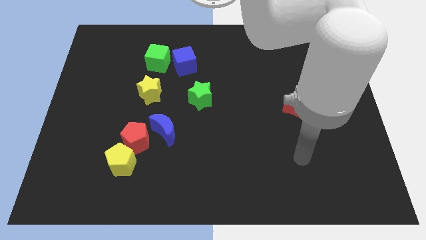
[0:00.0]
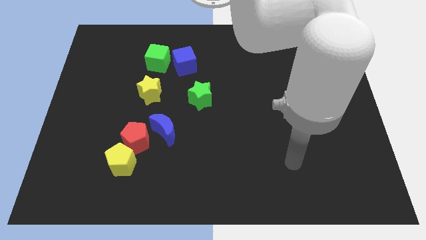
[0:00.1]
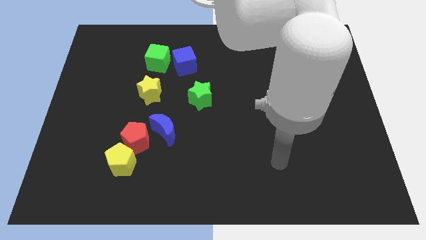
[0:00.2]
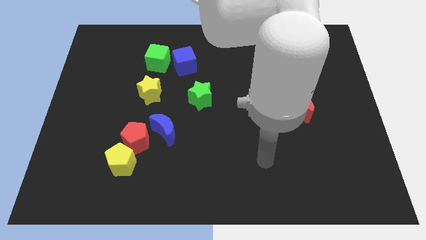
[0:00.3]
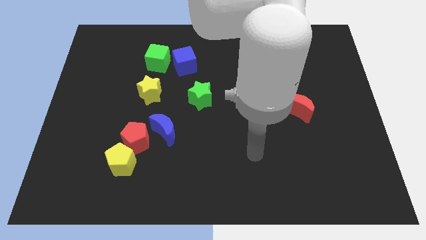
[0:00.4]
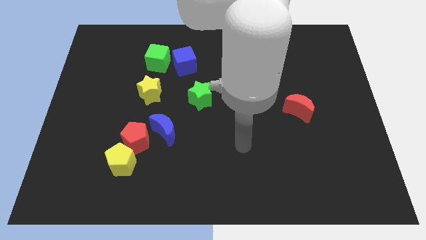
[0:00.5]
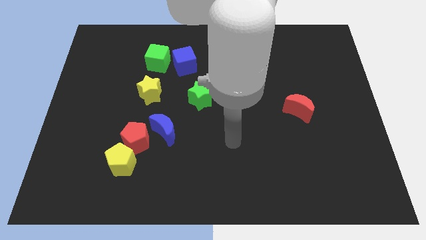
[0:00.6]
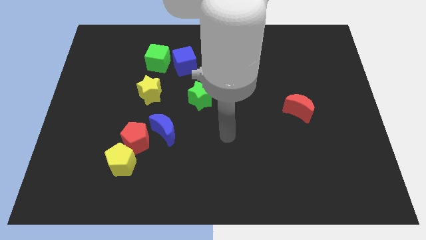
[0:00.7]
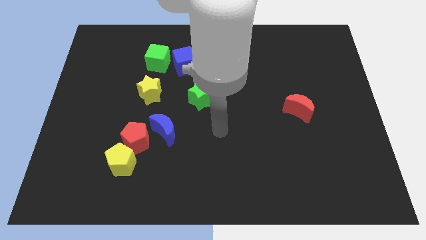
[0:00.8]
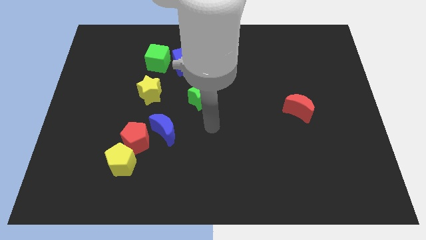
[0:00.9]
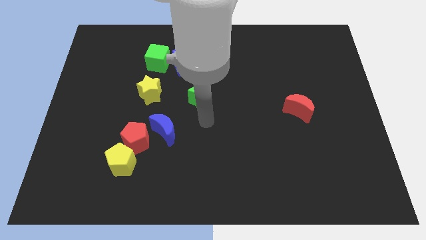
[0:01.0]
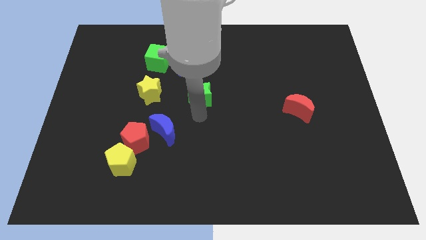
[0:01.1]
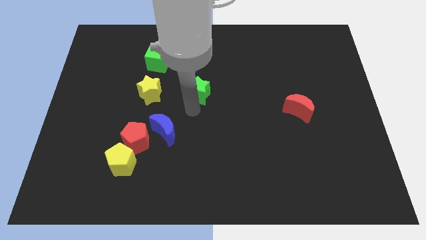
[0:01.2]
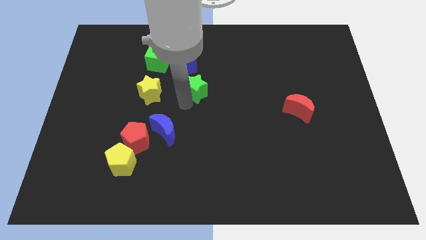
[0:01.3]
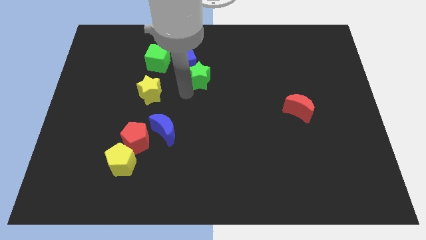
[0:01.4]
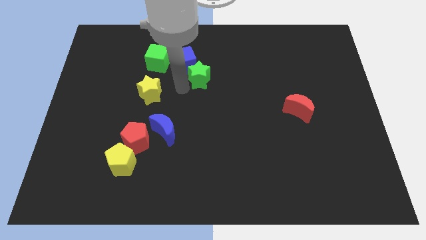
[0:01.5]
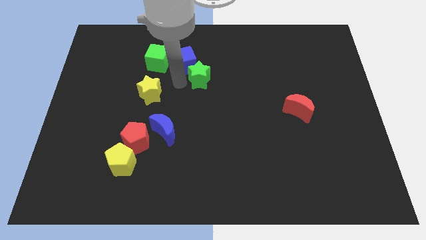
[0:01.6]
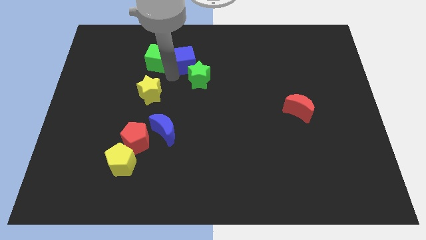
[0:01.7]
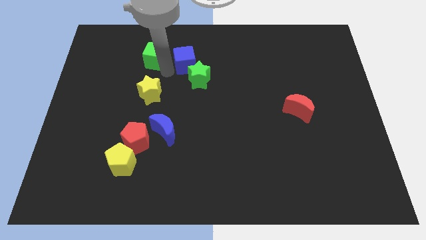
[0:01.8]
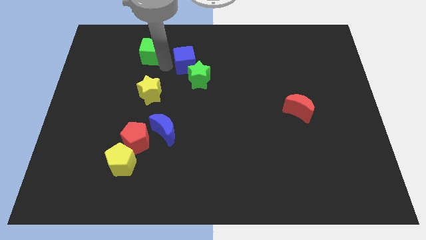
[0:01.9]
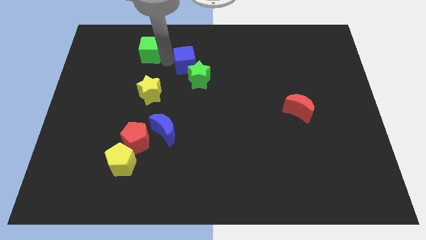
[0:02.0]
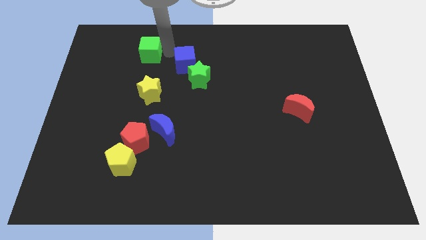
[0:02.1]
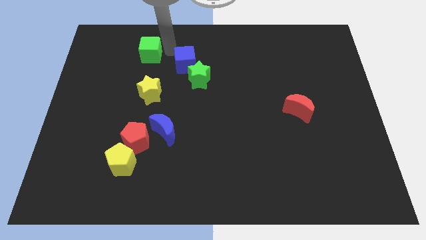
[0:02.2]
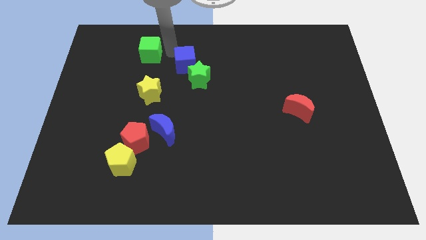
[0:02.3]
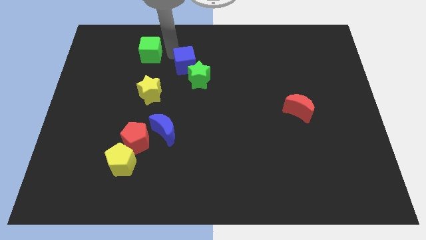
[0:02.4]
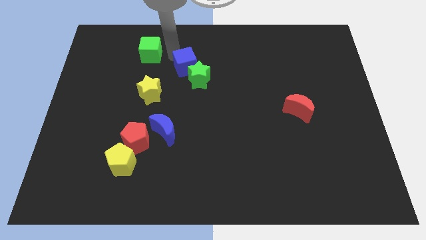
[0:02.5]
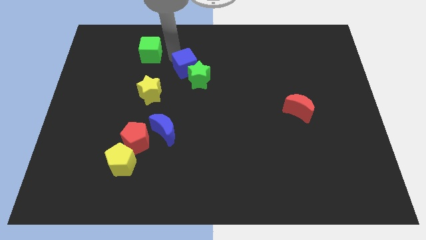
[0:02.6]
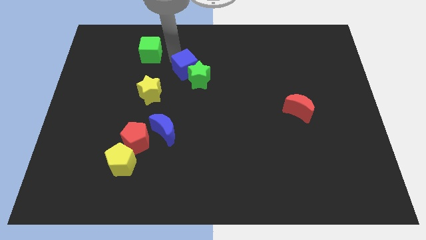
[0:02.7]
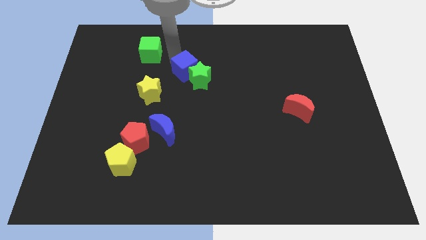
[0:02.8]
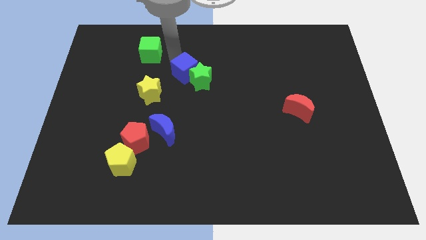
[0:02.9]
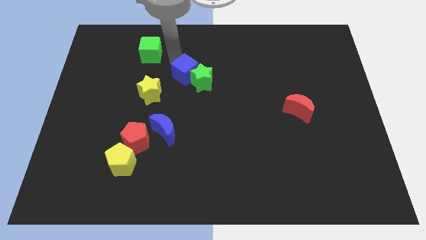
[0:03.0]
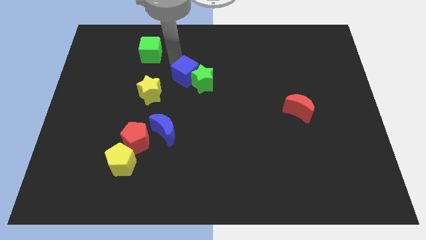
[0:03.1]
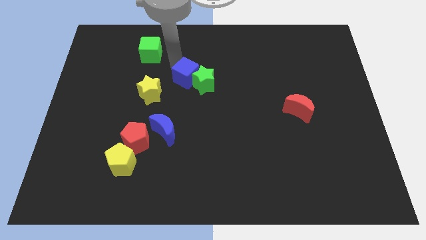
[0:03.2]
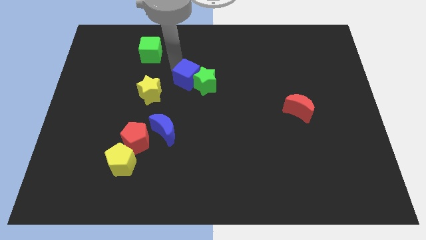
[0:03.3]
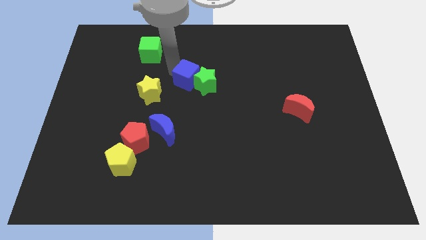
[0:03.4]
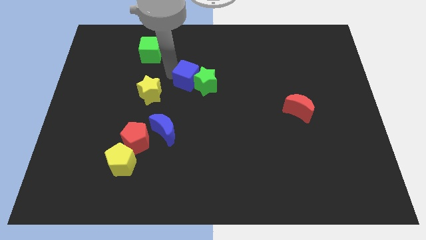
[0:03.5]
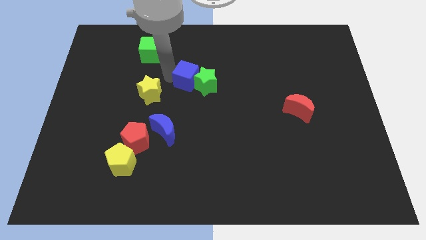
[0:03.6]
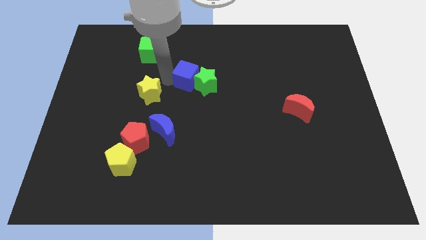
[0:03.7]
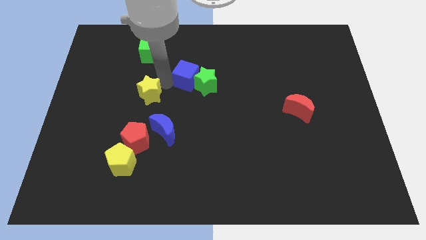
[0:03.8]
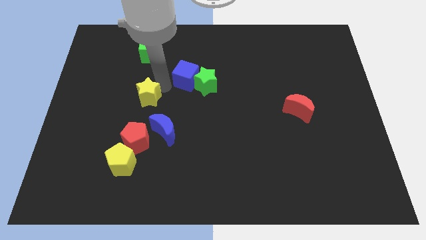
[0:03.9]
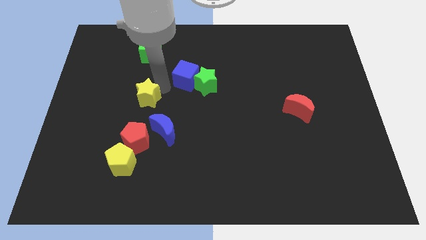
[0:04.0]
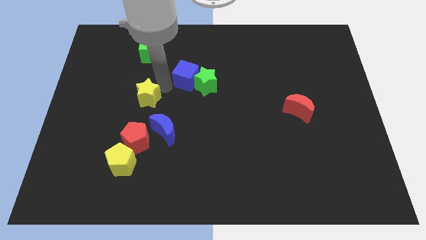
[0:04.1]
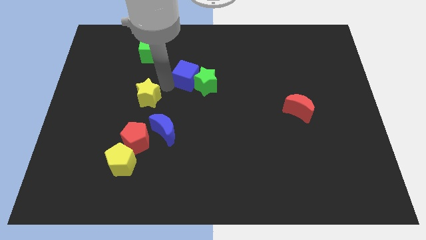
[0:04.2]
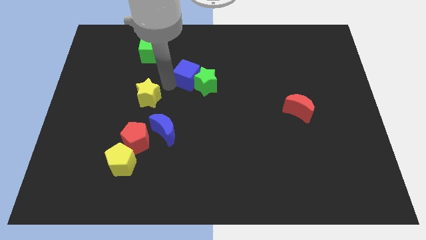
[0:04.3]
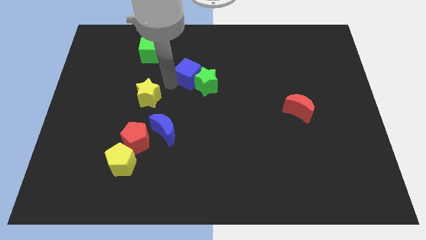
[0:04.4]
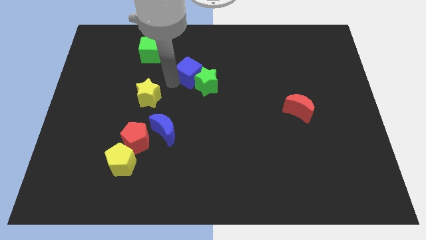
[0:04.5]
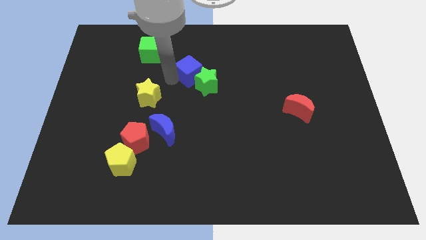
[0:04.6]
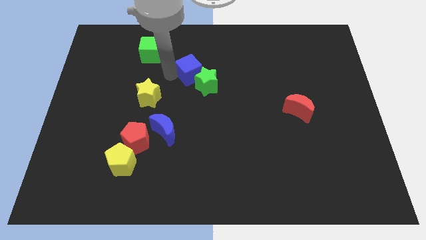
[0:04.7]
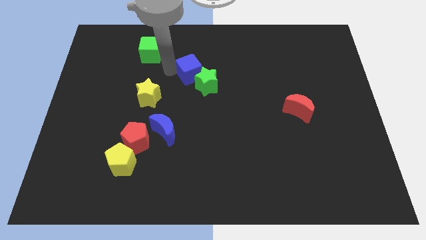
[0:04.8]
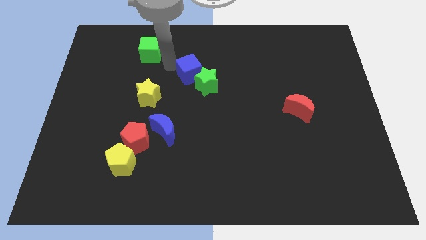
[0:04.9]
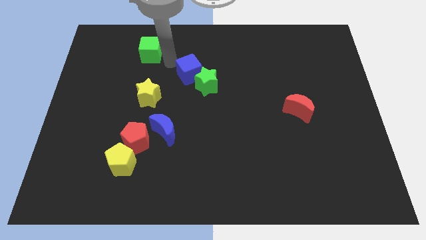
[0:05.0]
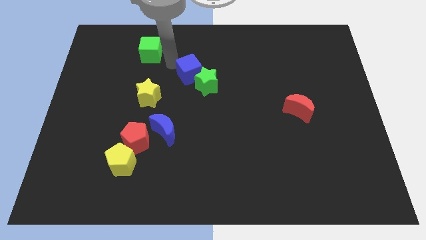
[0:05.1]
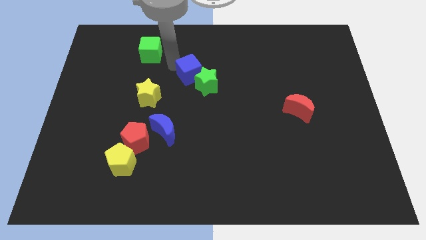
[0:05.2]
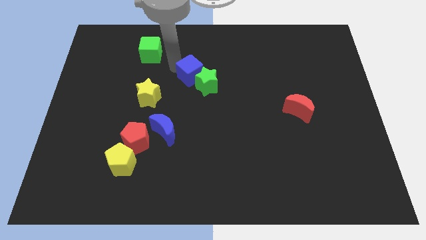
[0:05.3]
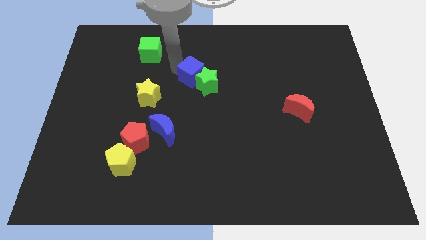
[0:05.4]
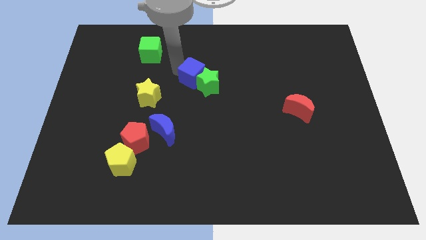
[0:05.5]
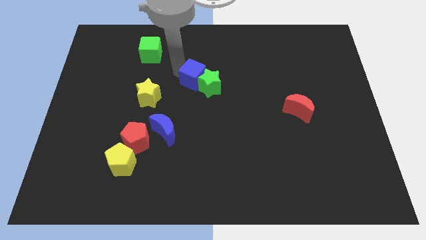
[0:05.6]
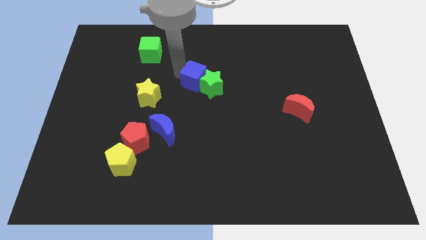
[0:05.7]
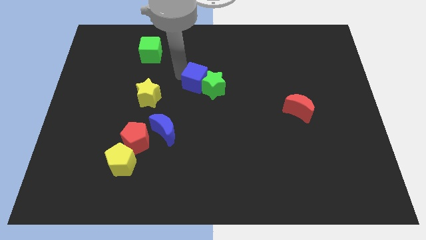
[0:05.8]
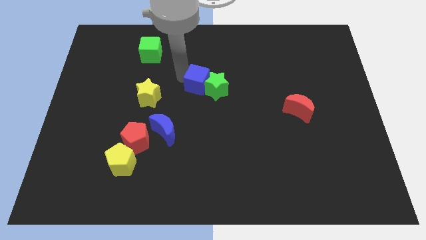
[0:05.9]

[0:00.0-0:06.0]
move the blue cube diagonally down and right somewhat

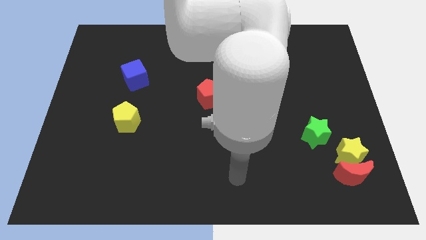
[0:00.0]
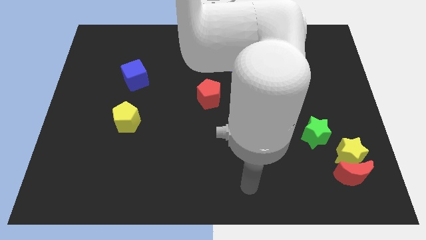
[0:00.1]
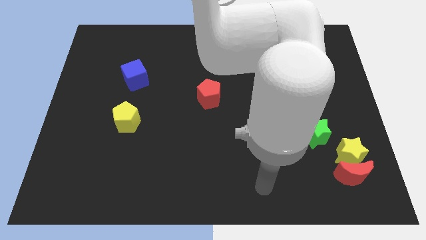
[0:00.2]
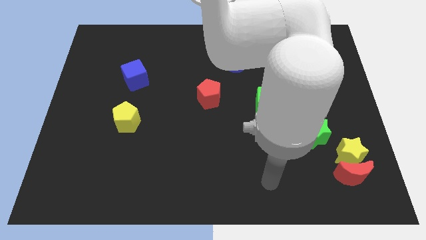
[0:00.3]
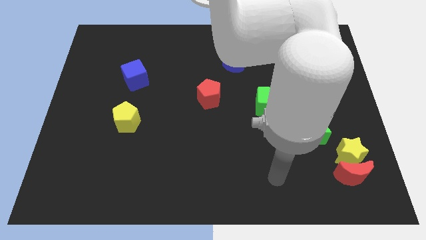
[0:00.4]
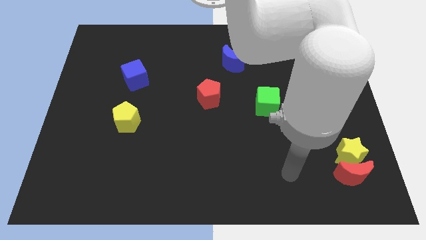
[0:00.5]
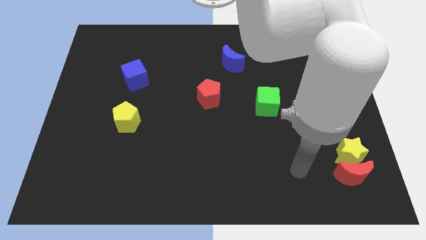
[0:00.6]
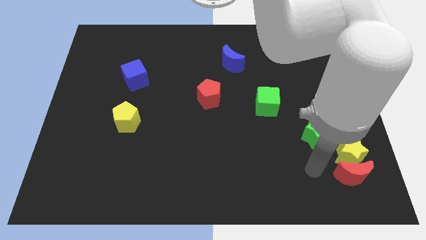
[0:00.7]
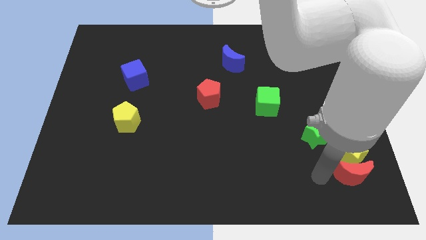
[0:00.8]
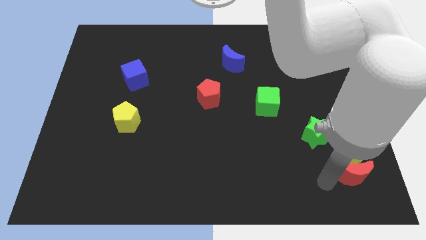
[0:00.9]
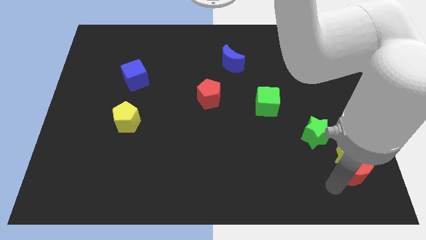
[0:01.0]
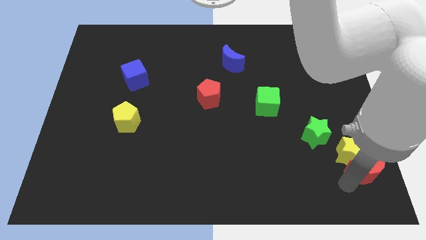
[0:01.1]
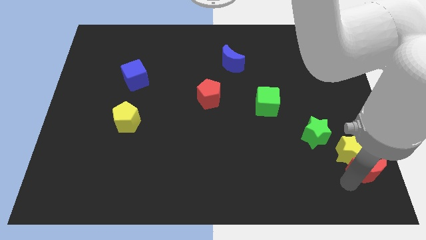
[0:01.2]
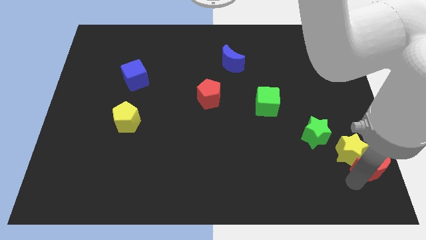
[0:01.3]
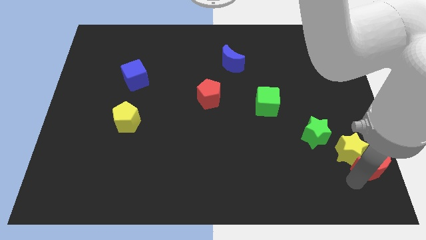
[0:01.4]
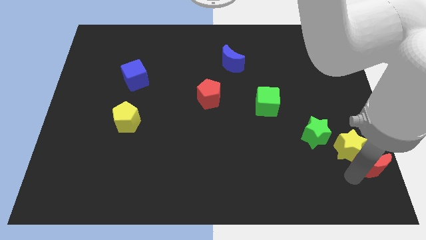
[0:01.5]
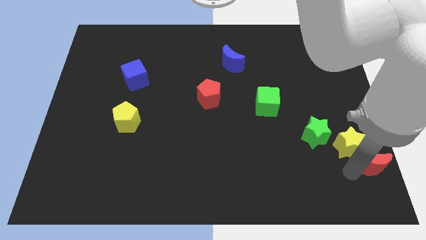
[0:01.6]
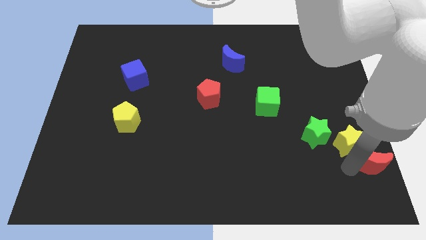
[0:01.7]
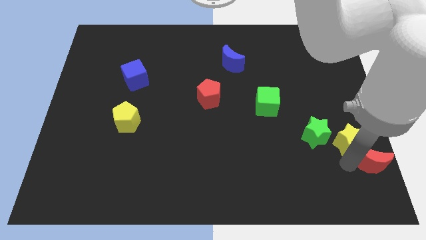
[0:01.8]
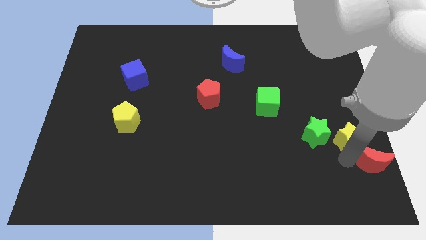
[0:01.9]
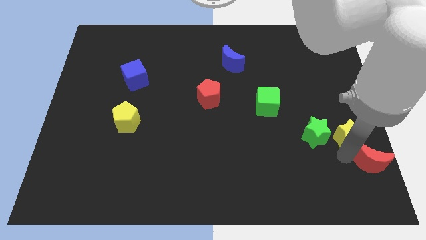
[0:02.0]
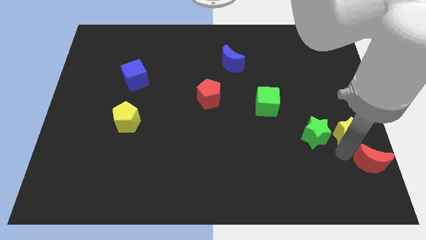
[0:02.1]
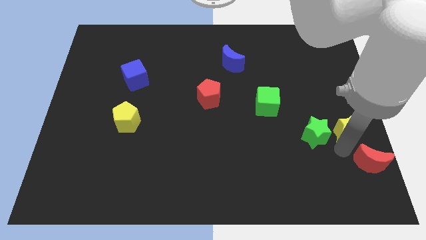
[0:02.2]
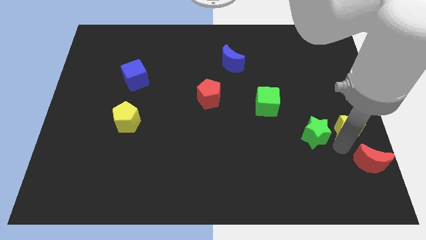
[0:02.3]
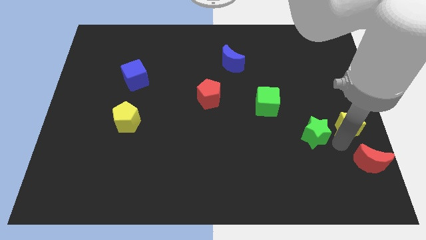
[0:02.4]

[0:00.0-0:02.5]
push the yellow star slightly upwards
